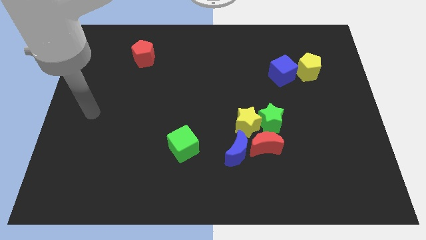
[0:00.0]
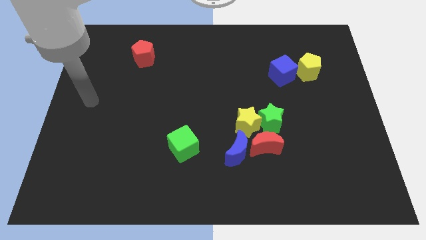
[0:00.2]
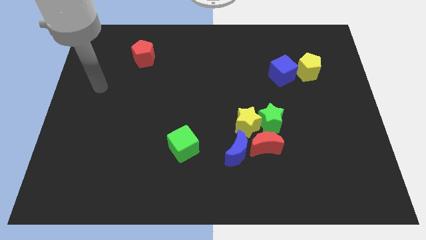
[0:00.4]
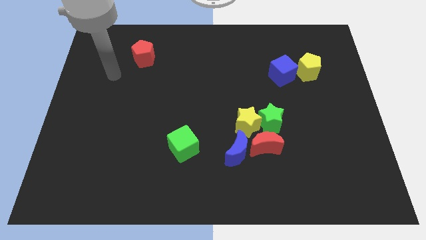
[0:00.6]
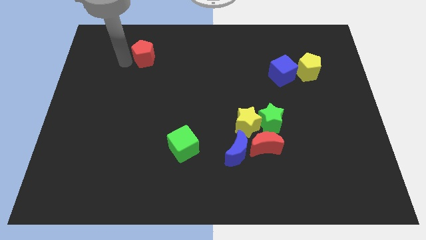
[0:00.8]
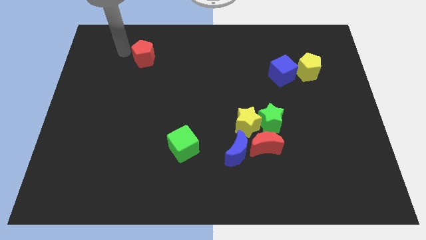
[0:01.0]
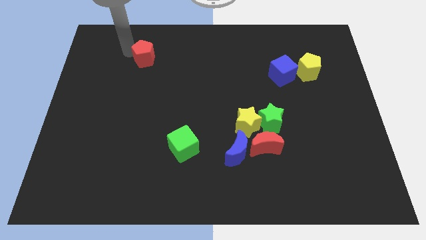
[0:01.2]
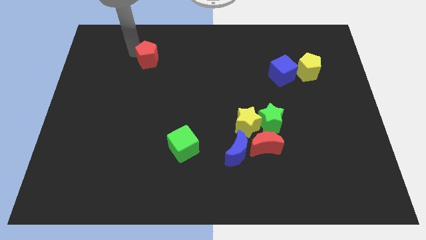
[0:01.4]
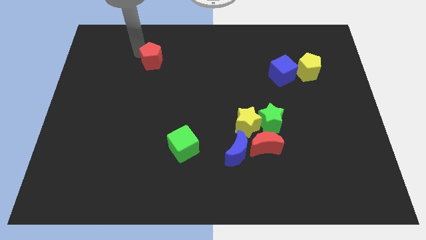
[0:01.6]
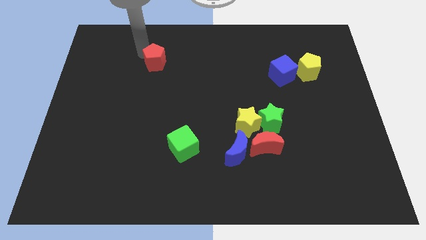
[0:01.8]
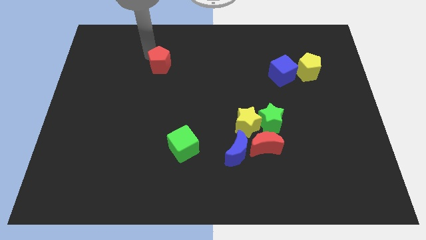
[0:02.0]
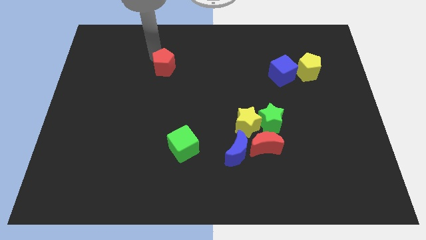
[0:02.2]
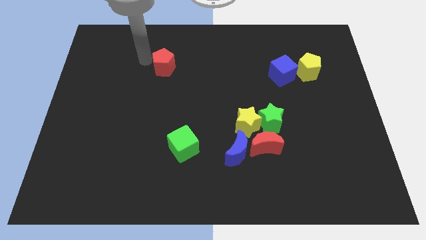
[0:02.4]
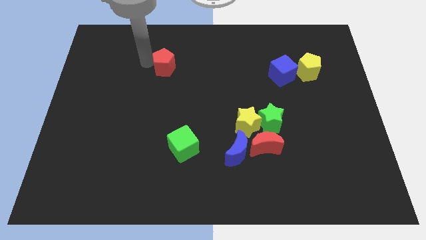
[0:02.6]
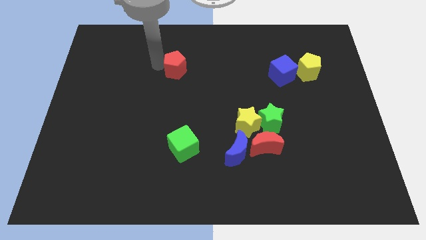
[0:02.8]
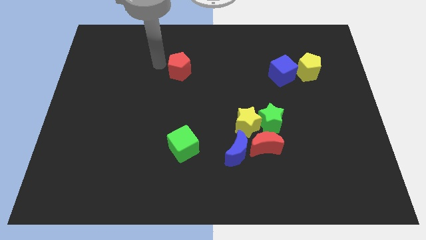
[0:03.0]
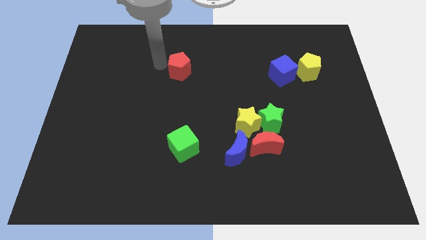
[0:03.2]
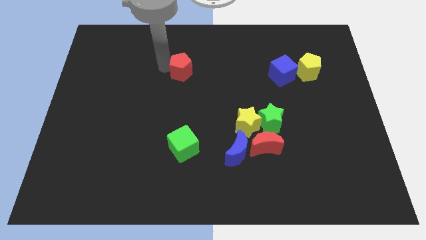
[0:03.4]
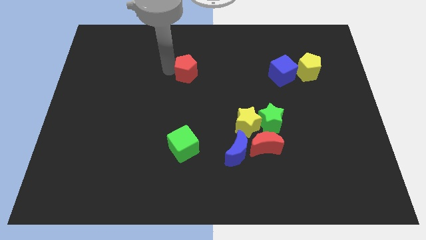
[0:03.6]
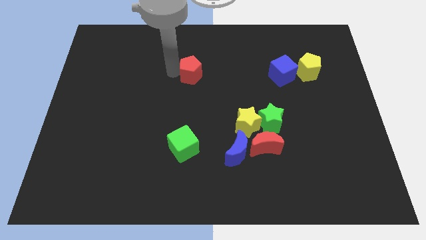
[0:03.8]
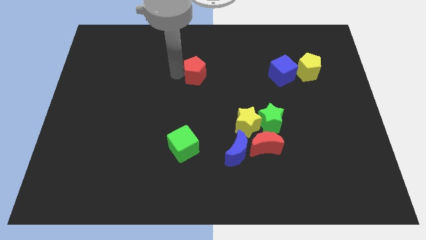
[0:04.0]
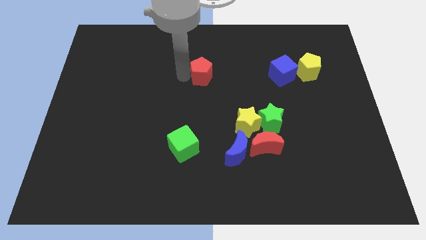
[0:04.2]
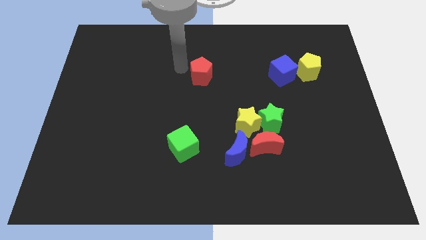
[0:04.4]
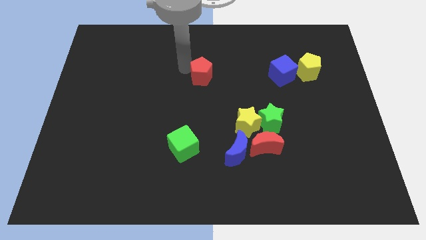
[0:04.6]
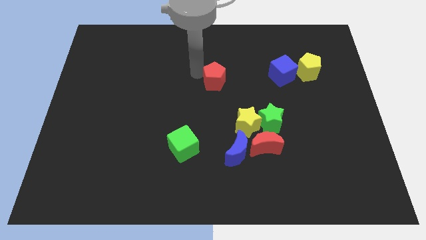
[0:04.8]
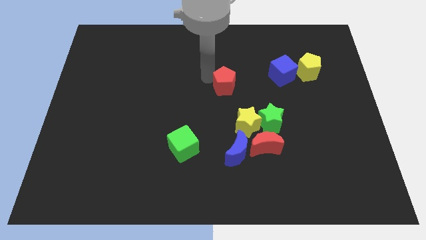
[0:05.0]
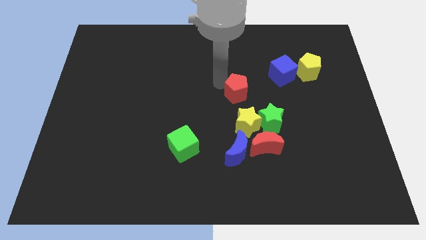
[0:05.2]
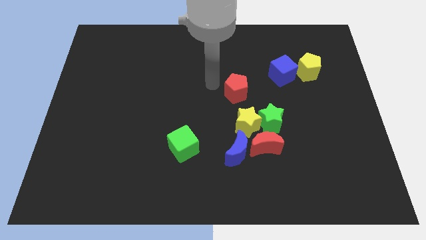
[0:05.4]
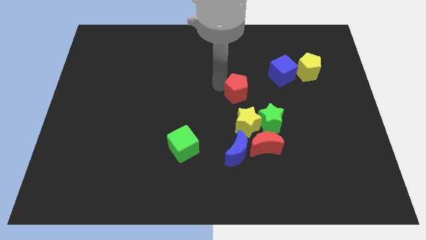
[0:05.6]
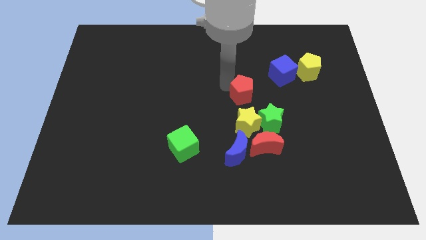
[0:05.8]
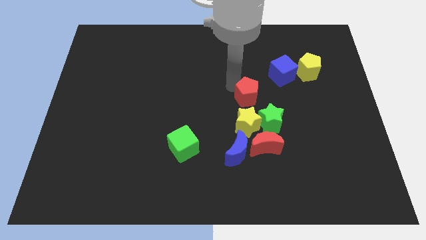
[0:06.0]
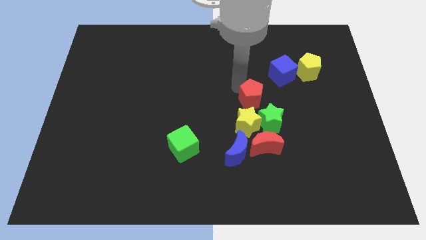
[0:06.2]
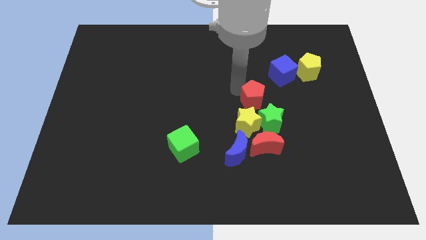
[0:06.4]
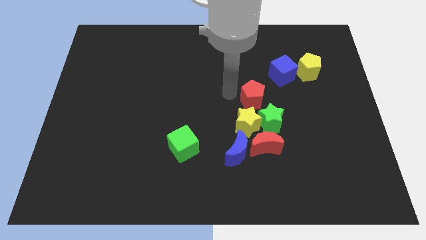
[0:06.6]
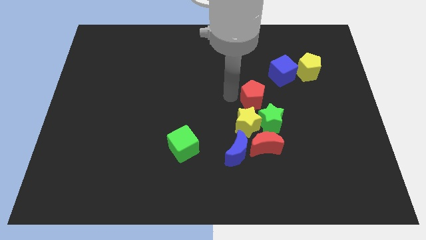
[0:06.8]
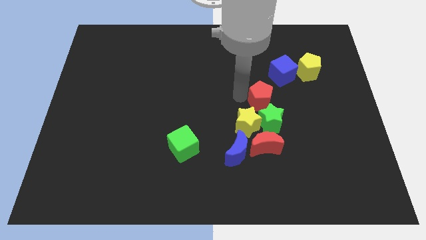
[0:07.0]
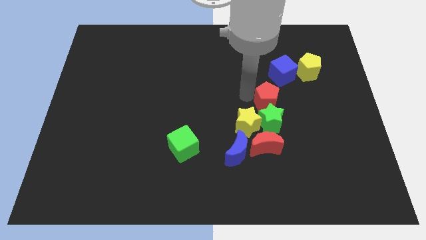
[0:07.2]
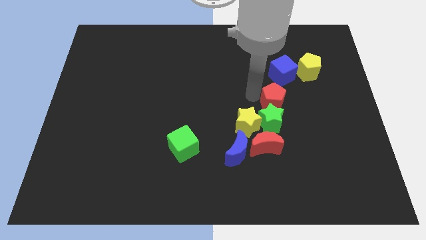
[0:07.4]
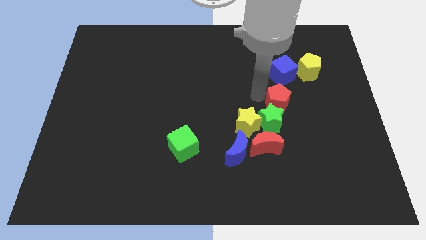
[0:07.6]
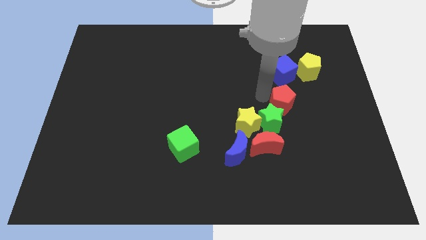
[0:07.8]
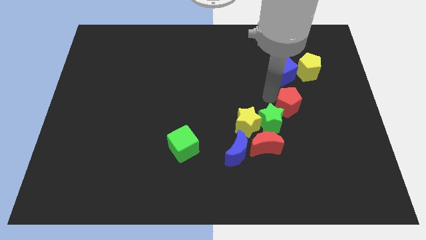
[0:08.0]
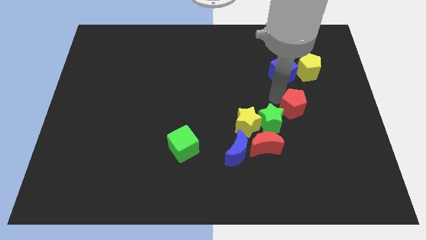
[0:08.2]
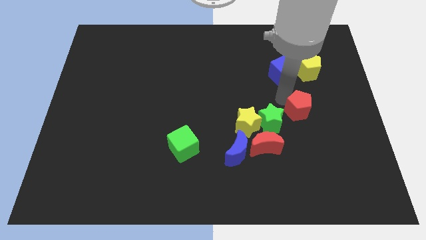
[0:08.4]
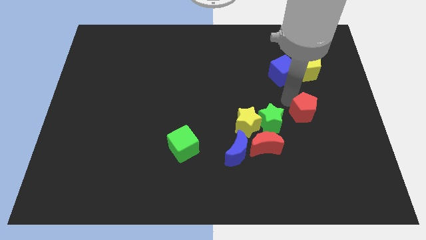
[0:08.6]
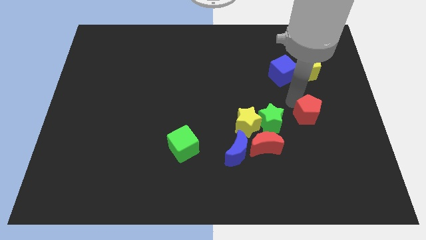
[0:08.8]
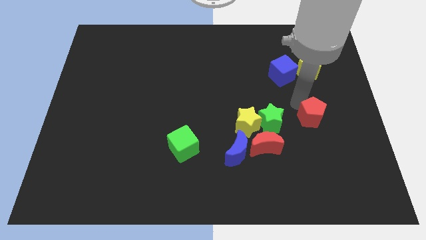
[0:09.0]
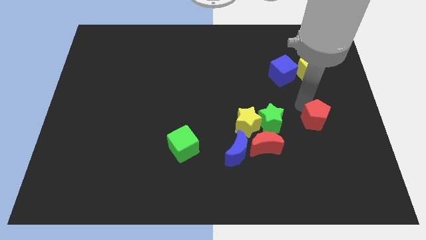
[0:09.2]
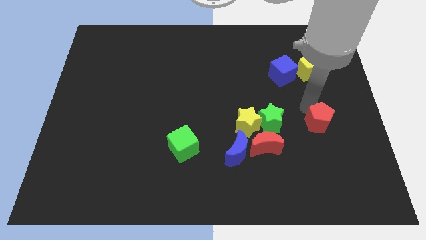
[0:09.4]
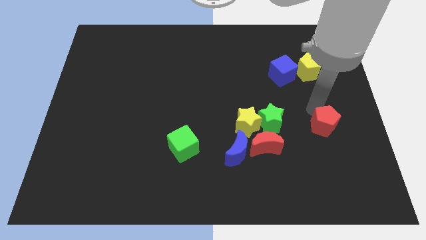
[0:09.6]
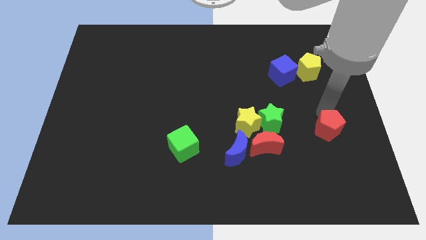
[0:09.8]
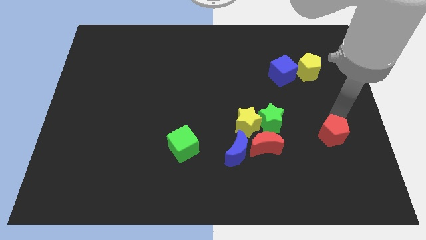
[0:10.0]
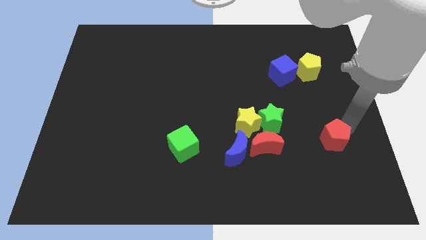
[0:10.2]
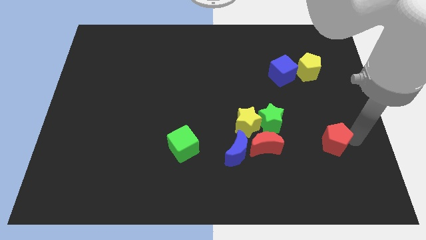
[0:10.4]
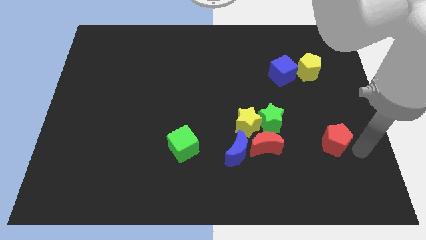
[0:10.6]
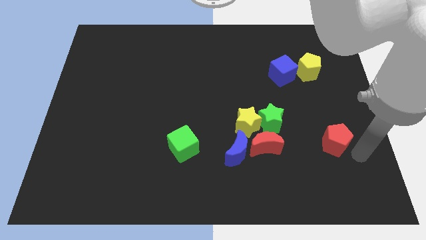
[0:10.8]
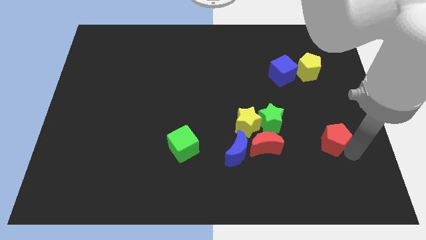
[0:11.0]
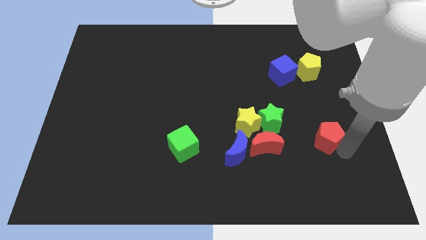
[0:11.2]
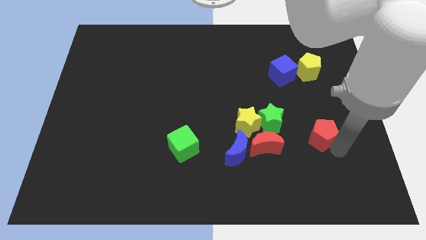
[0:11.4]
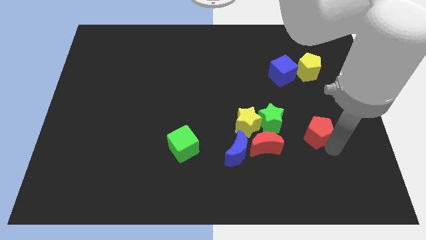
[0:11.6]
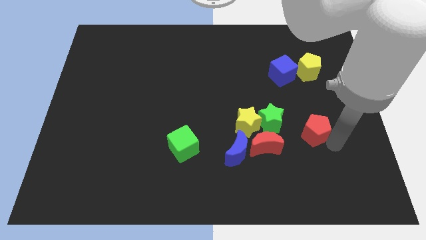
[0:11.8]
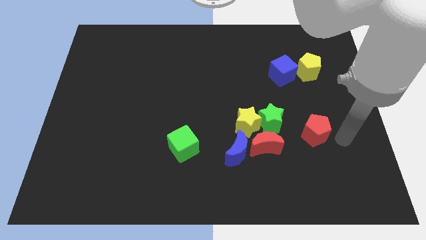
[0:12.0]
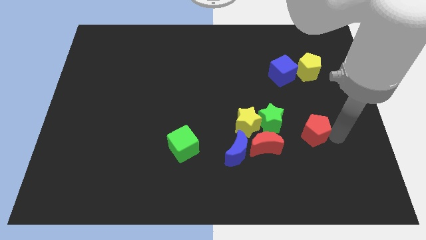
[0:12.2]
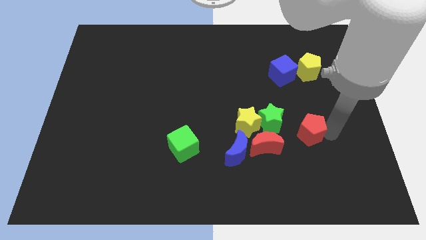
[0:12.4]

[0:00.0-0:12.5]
slide the red pentagon diagonally up and to the right of the red moon

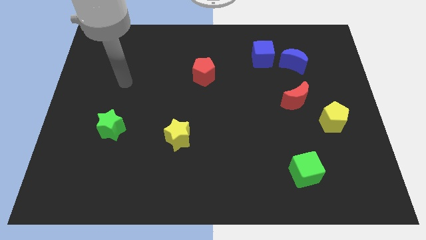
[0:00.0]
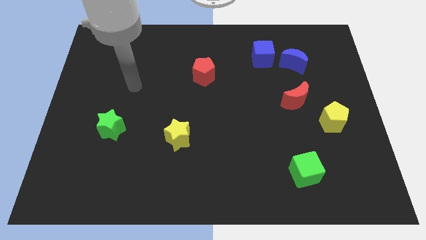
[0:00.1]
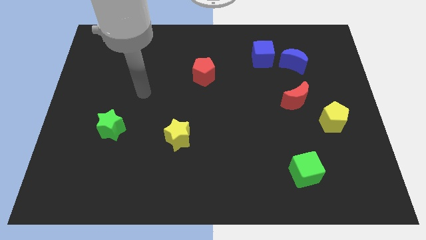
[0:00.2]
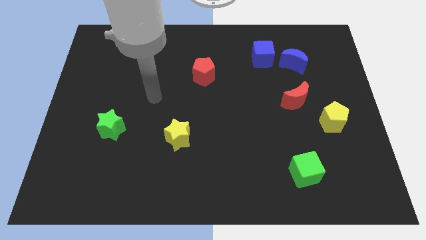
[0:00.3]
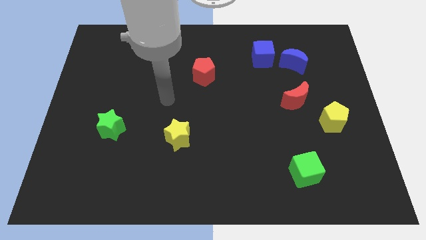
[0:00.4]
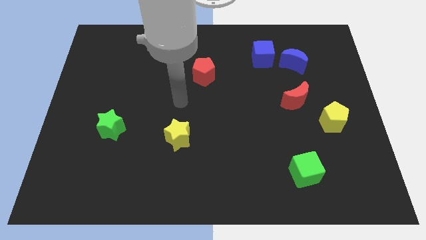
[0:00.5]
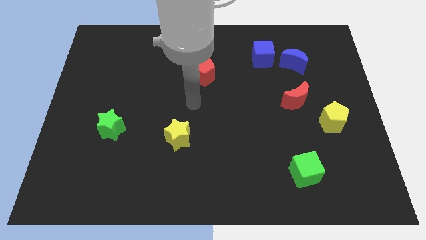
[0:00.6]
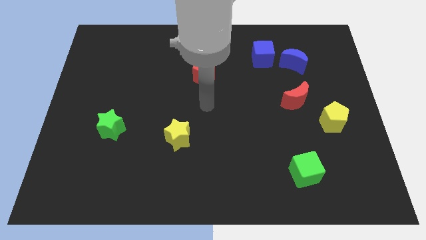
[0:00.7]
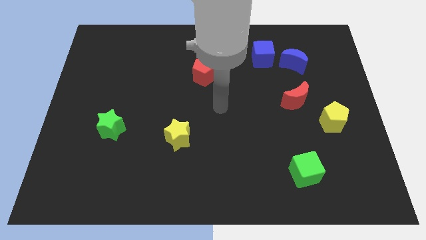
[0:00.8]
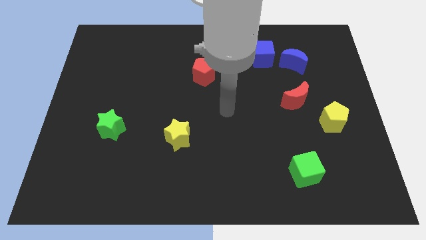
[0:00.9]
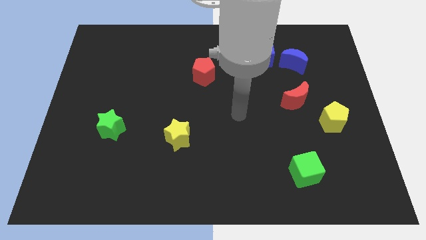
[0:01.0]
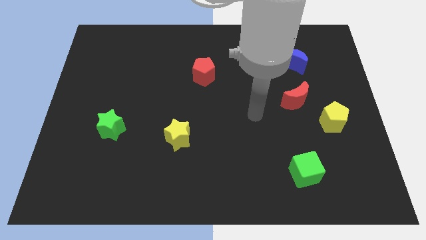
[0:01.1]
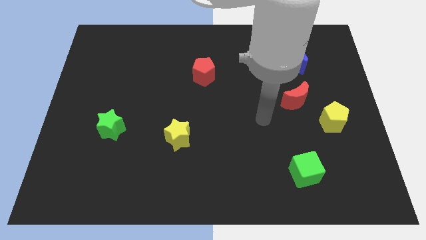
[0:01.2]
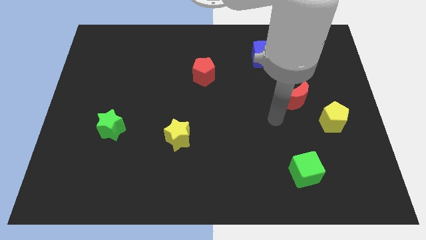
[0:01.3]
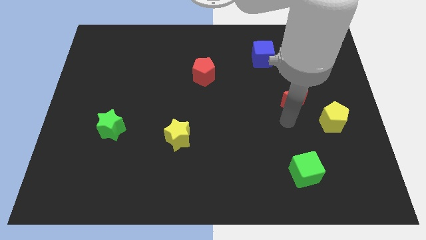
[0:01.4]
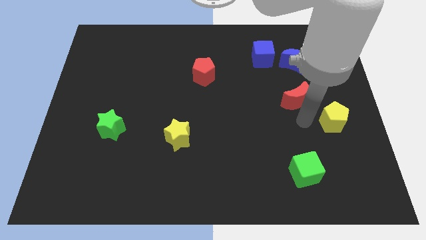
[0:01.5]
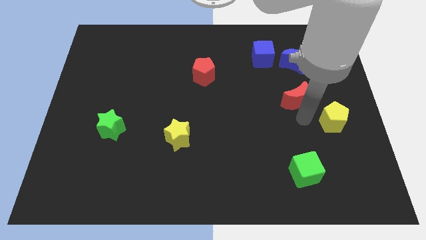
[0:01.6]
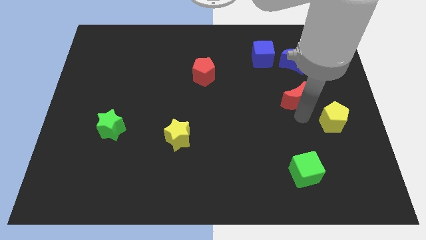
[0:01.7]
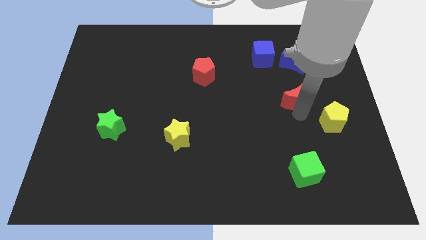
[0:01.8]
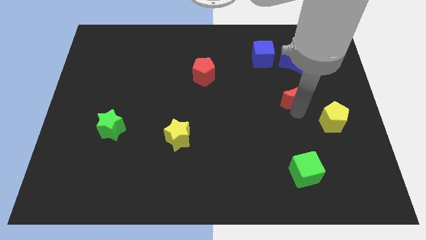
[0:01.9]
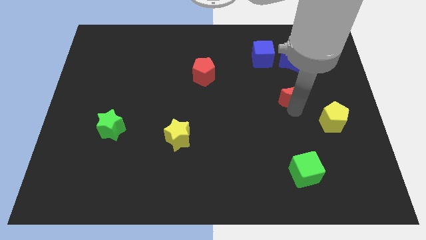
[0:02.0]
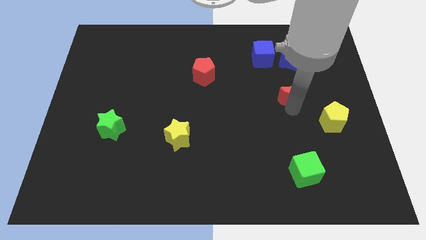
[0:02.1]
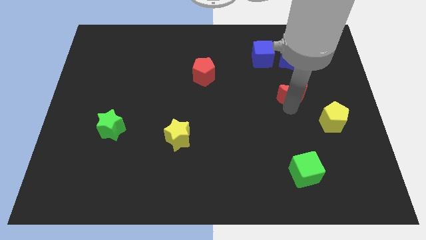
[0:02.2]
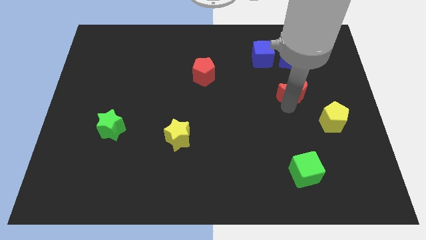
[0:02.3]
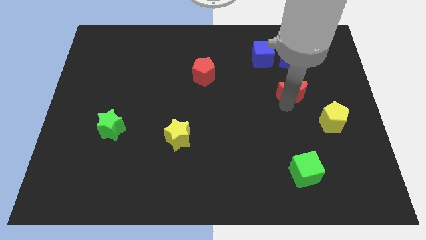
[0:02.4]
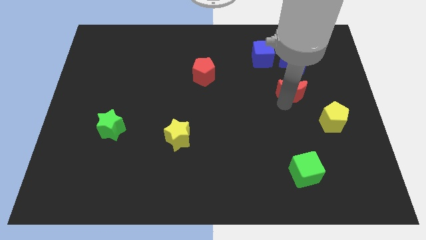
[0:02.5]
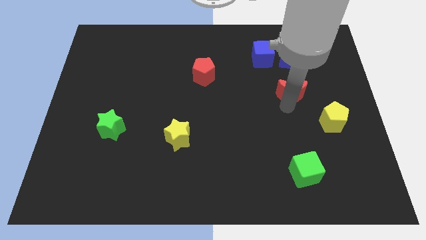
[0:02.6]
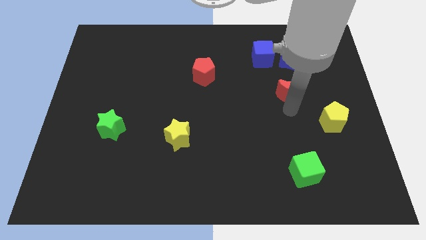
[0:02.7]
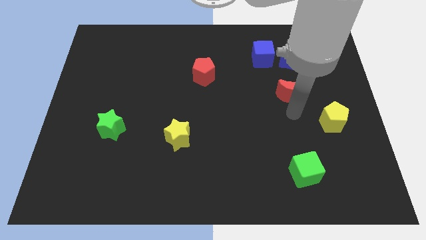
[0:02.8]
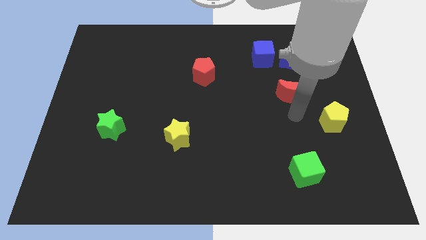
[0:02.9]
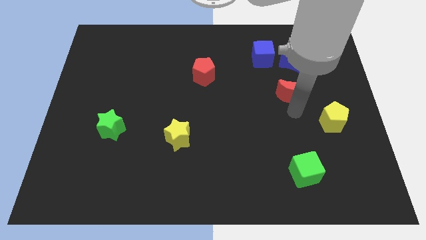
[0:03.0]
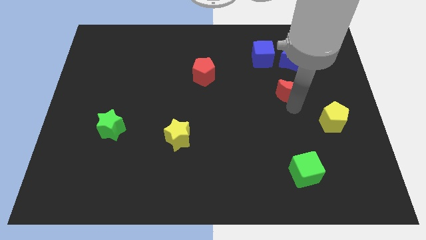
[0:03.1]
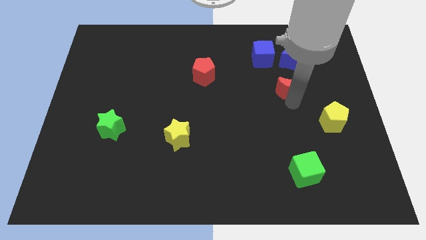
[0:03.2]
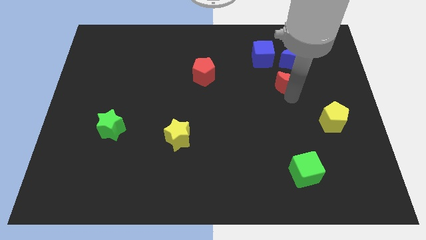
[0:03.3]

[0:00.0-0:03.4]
put the red moon to the bottom right side of the blue cube
